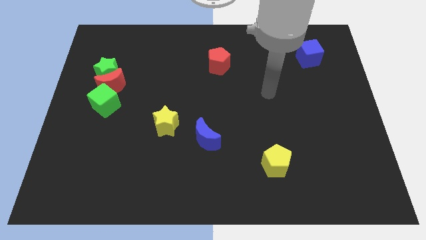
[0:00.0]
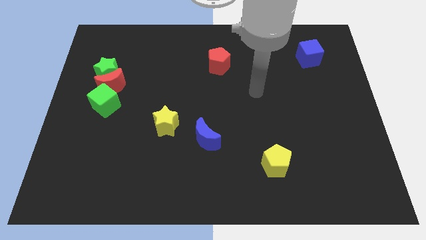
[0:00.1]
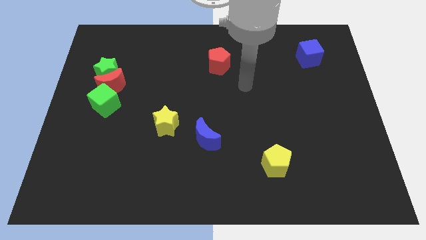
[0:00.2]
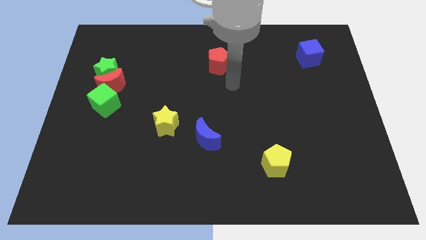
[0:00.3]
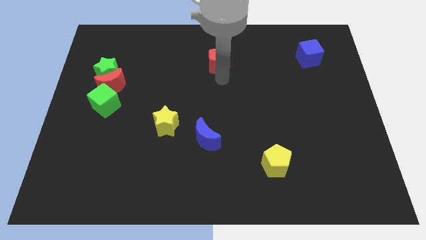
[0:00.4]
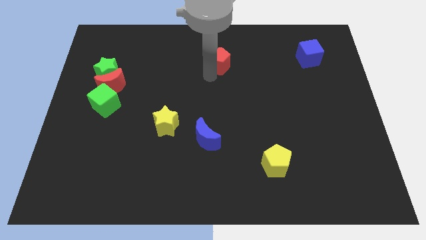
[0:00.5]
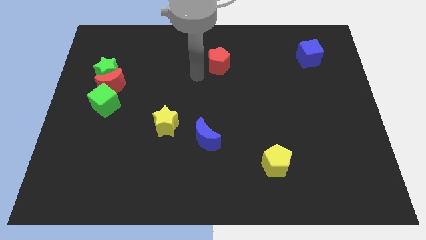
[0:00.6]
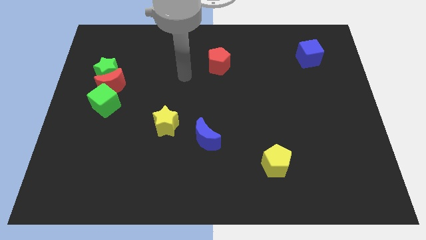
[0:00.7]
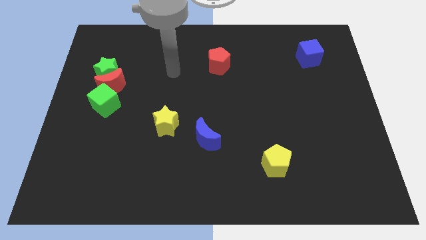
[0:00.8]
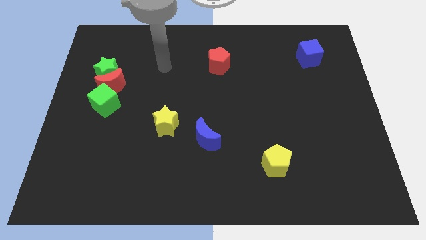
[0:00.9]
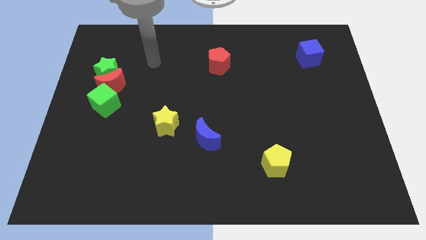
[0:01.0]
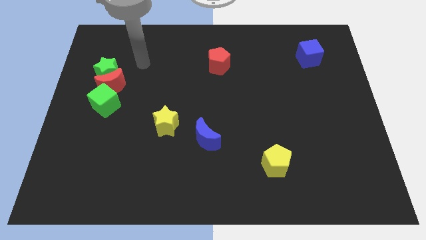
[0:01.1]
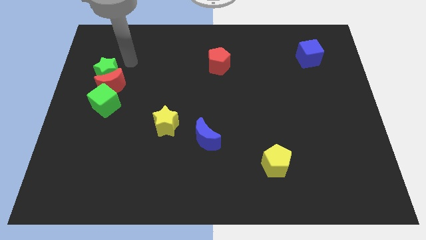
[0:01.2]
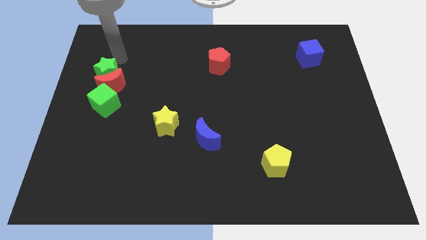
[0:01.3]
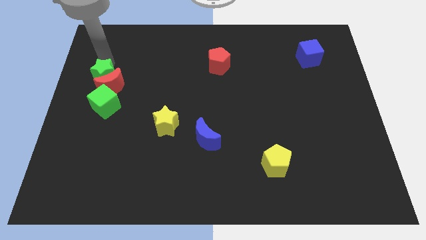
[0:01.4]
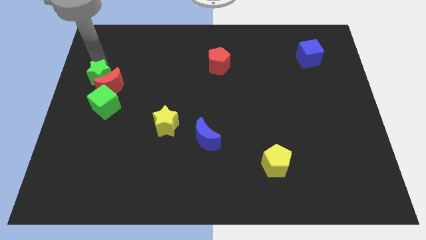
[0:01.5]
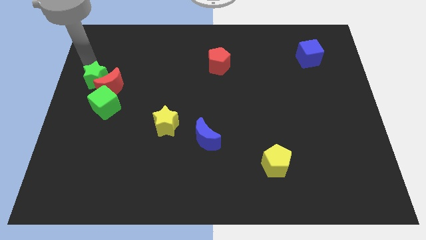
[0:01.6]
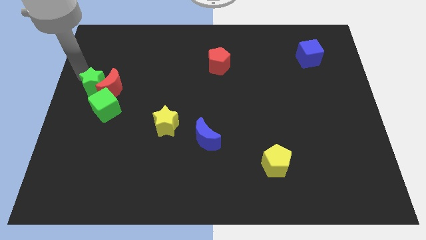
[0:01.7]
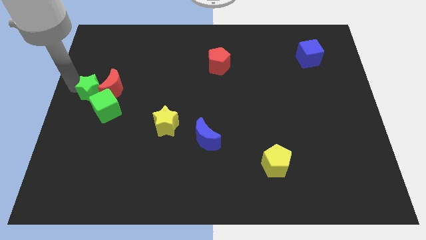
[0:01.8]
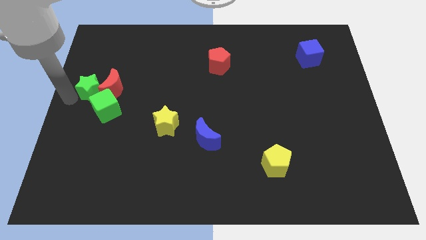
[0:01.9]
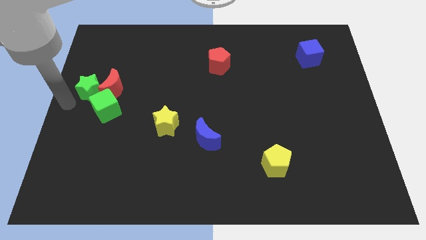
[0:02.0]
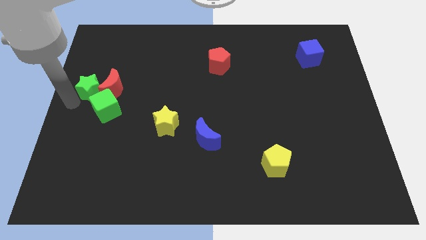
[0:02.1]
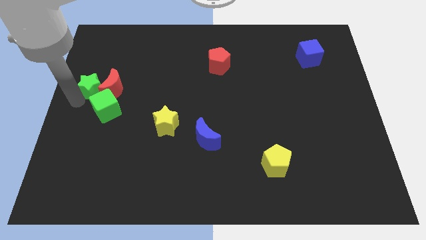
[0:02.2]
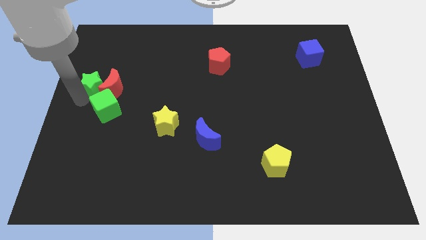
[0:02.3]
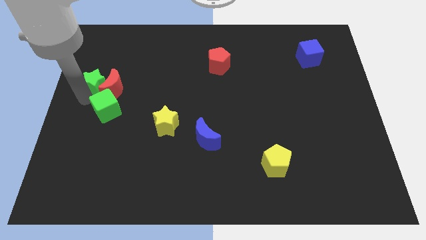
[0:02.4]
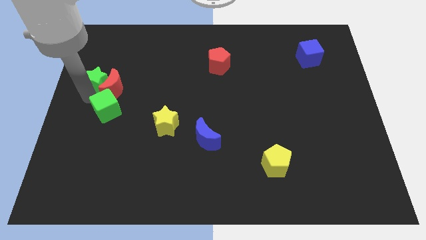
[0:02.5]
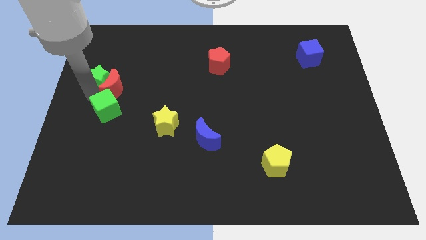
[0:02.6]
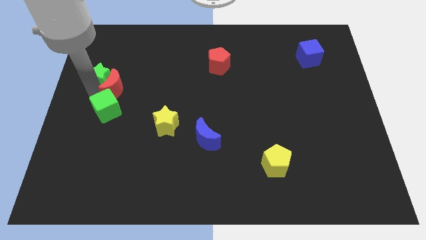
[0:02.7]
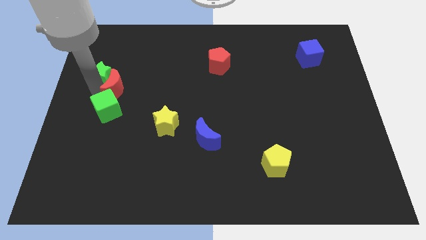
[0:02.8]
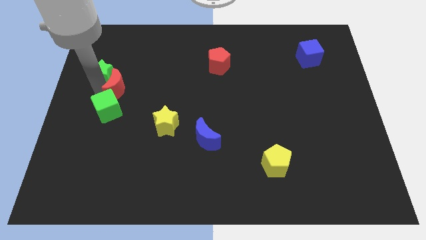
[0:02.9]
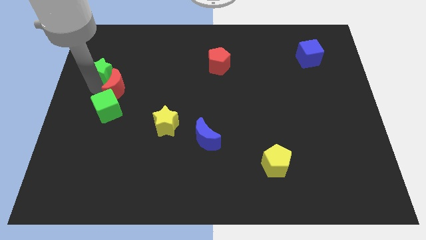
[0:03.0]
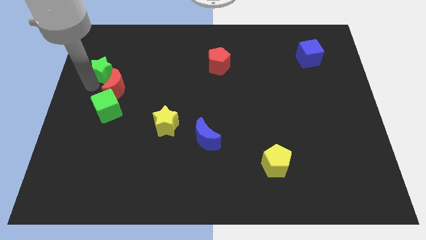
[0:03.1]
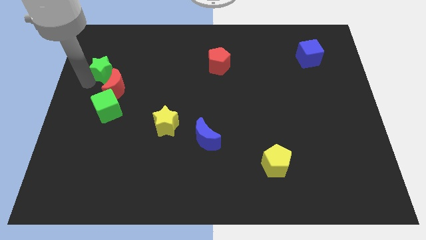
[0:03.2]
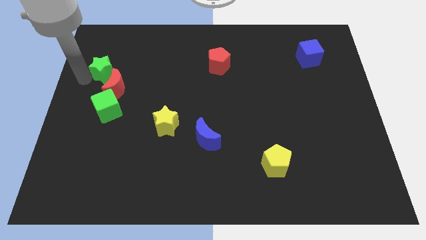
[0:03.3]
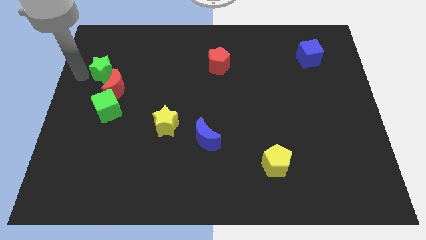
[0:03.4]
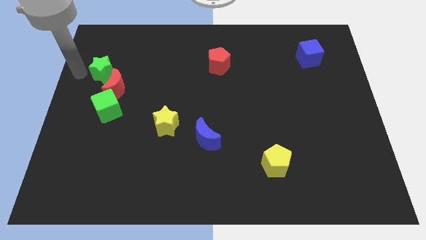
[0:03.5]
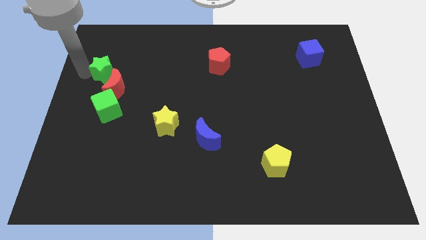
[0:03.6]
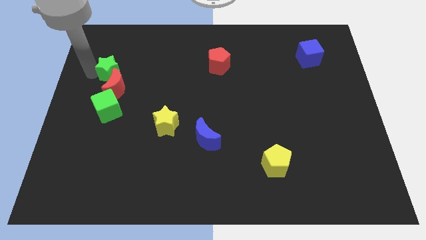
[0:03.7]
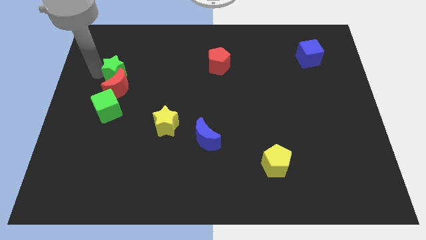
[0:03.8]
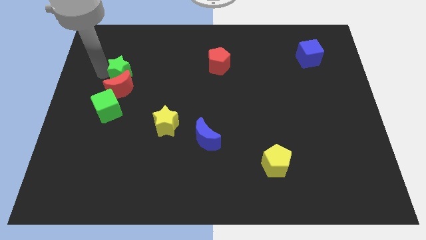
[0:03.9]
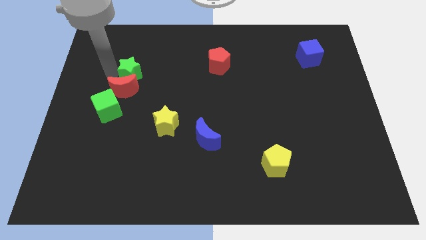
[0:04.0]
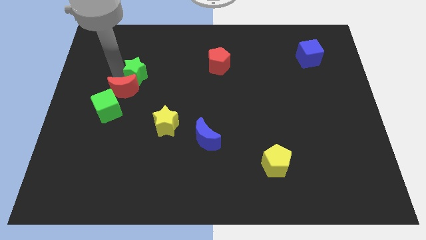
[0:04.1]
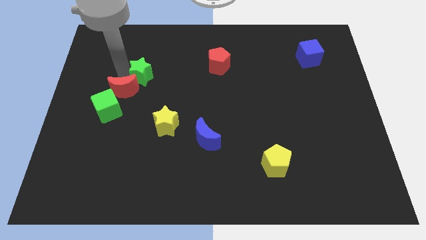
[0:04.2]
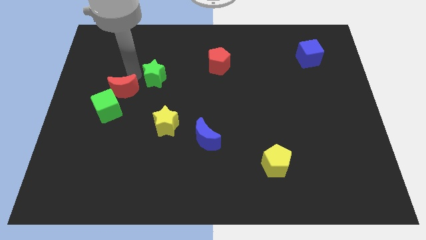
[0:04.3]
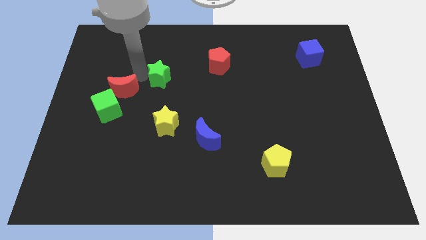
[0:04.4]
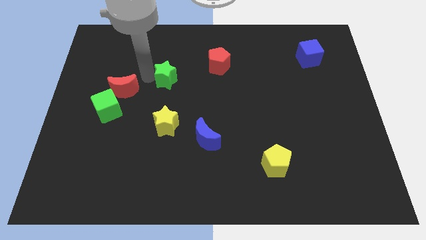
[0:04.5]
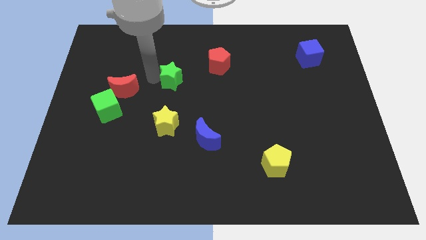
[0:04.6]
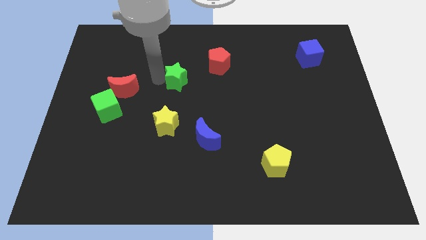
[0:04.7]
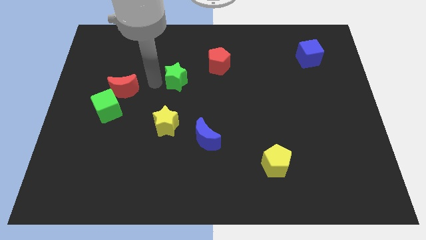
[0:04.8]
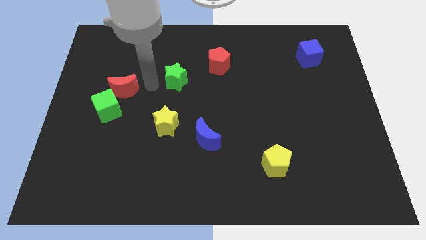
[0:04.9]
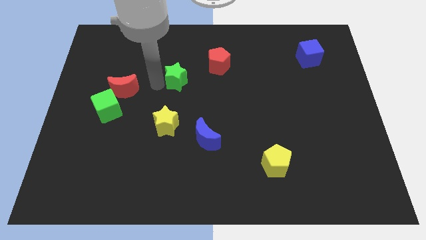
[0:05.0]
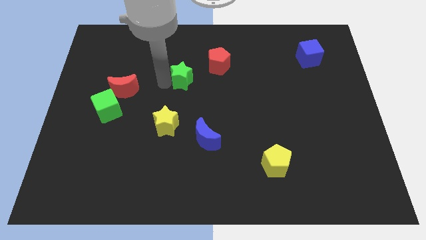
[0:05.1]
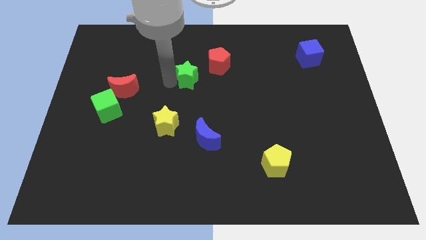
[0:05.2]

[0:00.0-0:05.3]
slide the green star to the right

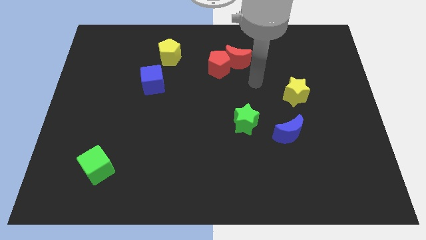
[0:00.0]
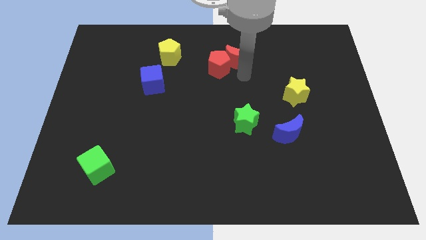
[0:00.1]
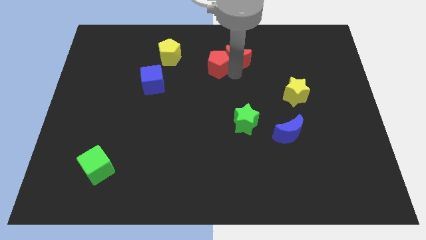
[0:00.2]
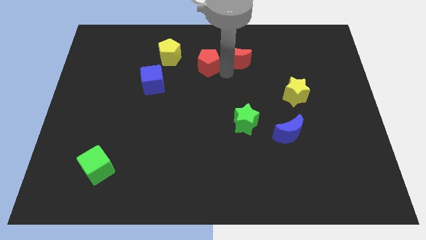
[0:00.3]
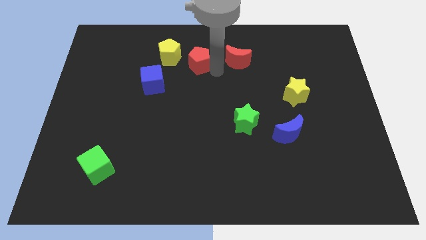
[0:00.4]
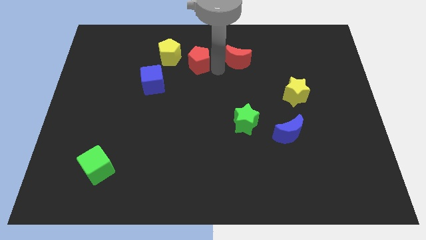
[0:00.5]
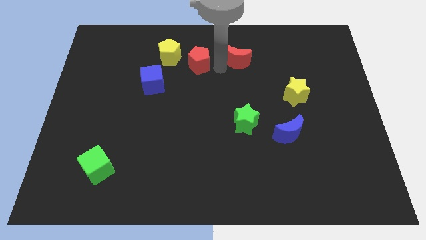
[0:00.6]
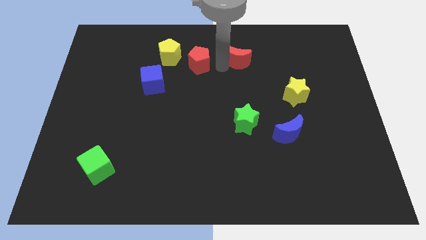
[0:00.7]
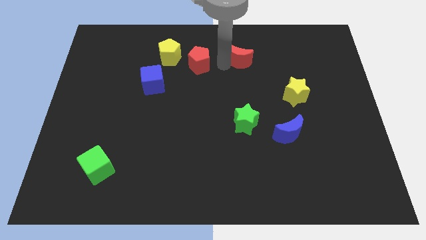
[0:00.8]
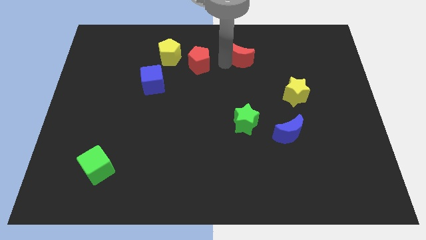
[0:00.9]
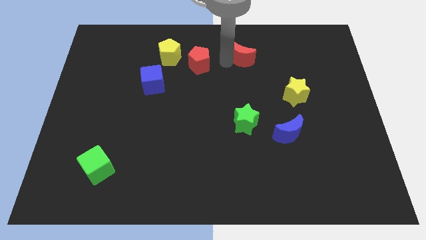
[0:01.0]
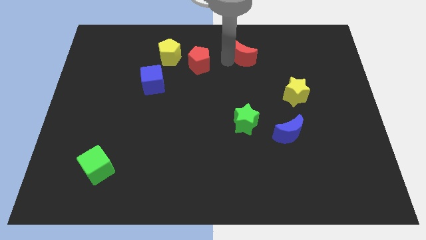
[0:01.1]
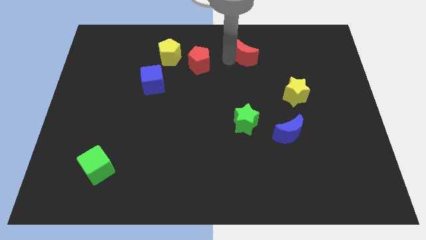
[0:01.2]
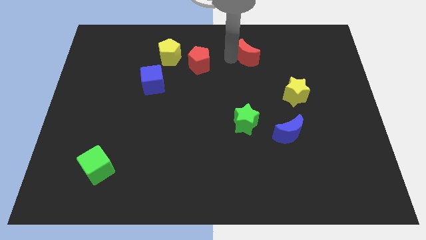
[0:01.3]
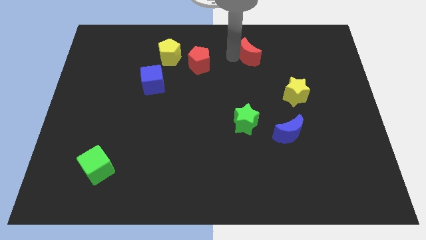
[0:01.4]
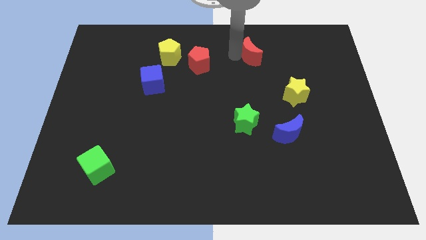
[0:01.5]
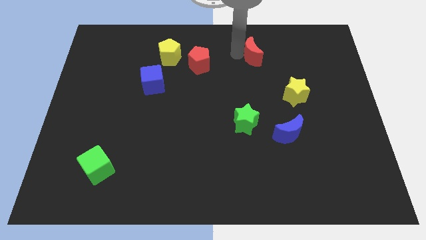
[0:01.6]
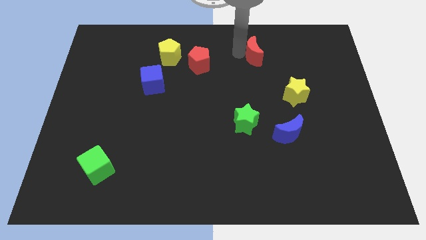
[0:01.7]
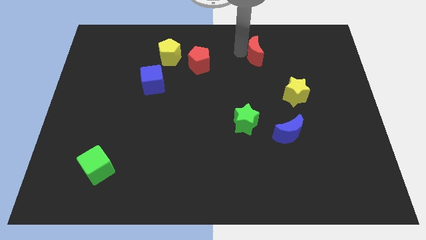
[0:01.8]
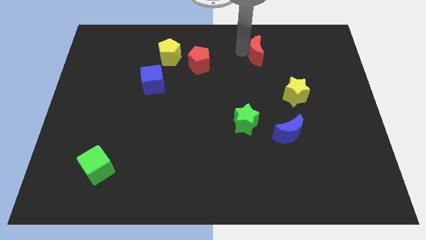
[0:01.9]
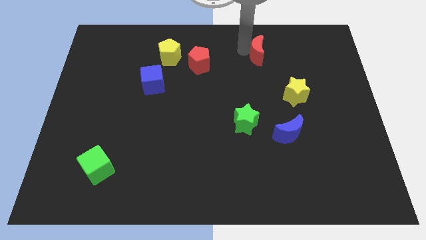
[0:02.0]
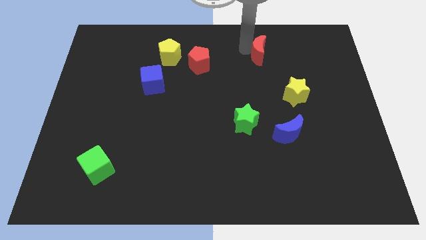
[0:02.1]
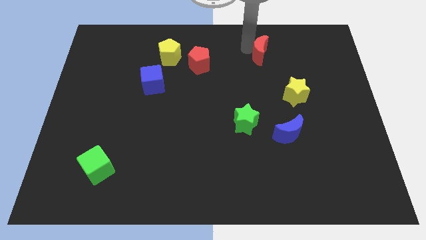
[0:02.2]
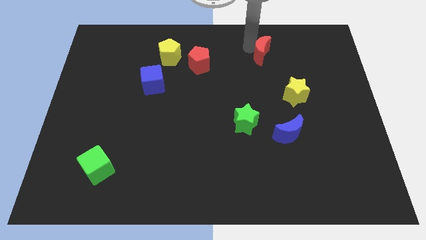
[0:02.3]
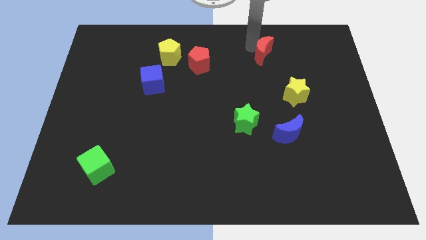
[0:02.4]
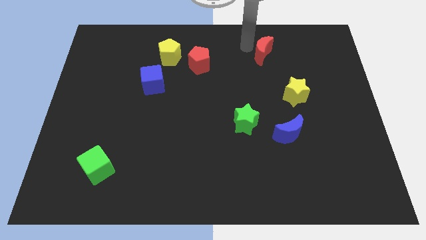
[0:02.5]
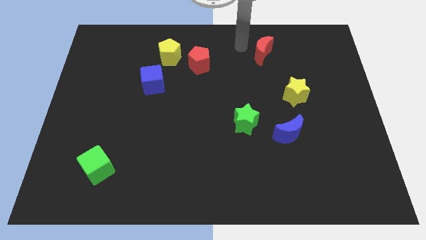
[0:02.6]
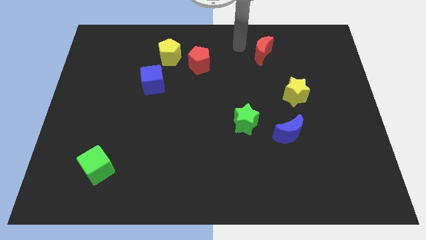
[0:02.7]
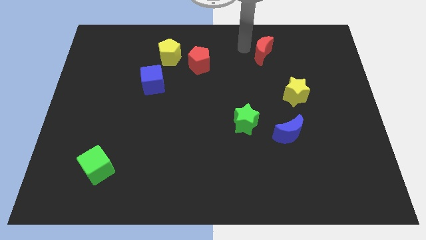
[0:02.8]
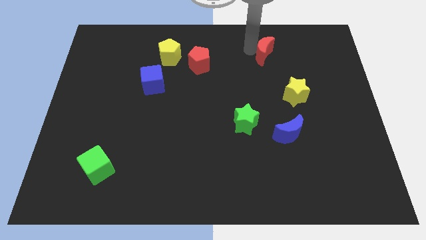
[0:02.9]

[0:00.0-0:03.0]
slide the red moon a little to the right
